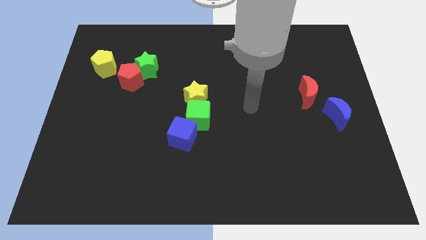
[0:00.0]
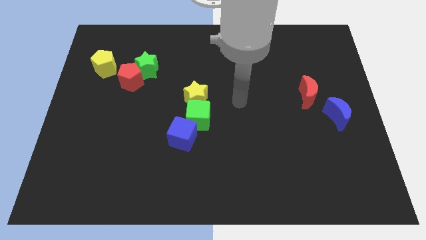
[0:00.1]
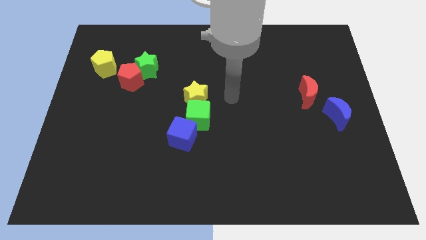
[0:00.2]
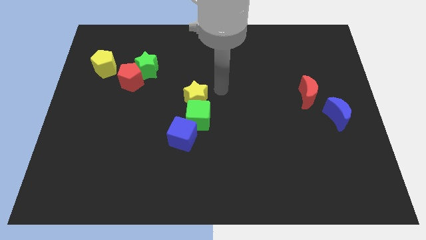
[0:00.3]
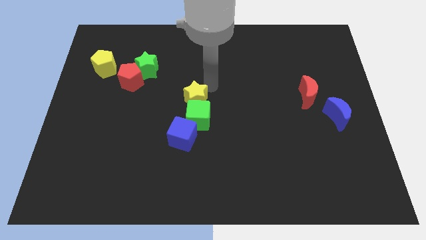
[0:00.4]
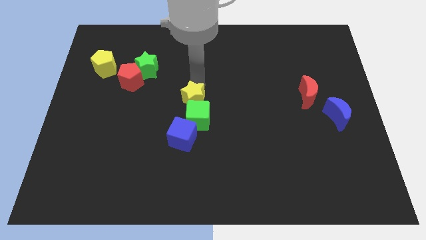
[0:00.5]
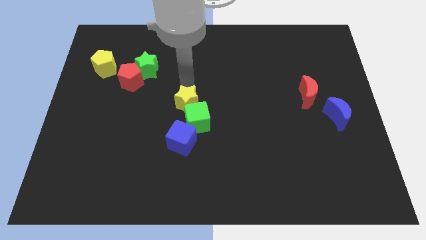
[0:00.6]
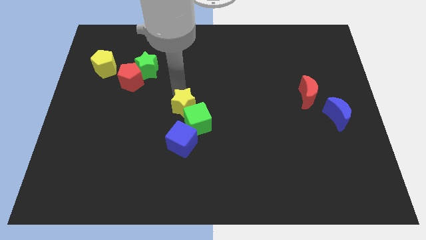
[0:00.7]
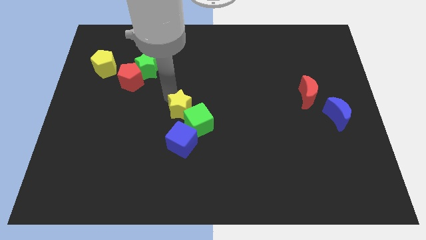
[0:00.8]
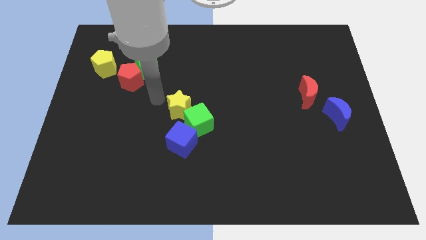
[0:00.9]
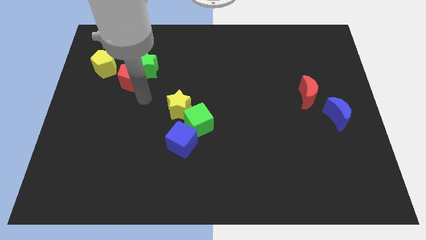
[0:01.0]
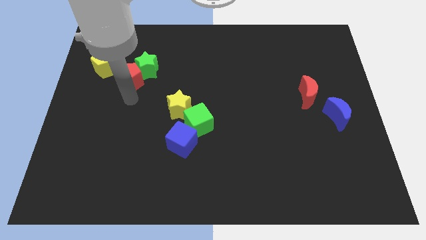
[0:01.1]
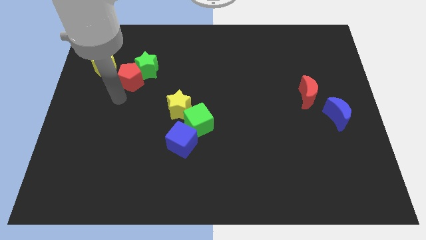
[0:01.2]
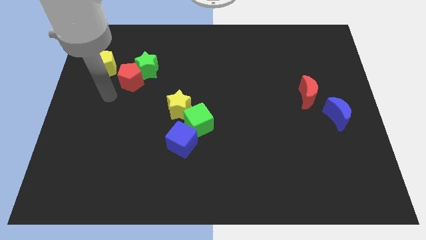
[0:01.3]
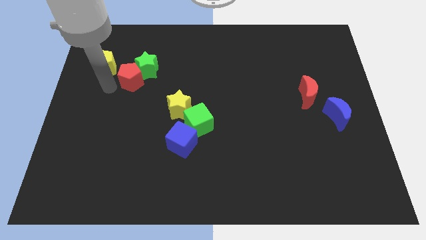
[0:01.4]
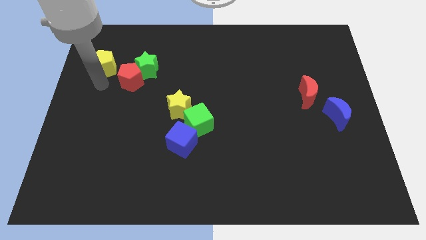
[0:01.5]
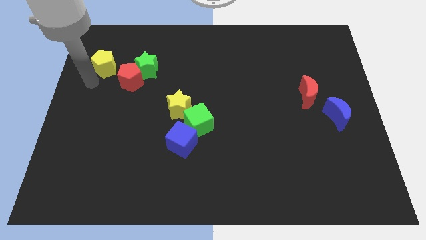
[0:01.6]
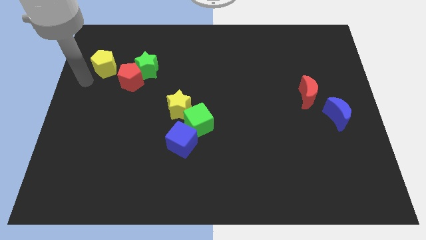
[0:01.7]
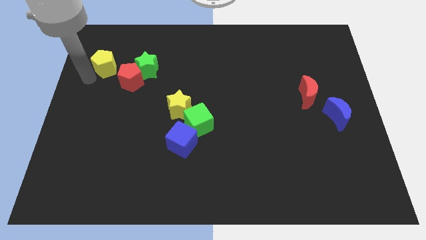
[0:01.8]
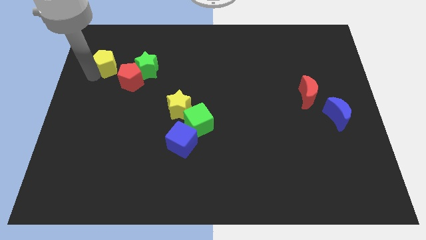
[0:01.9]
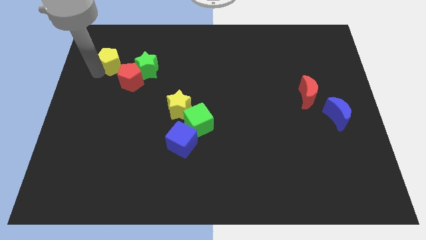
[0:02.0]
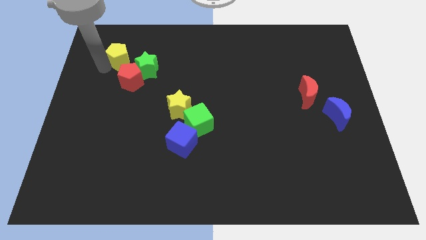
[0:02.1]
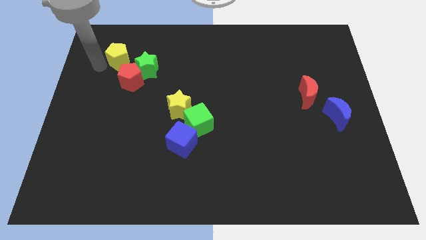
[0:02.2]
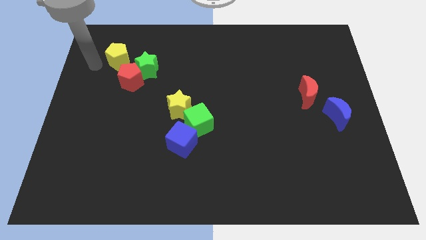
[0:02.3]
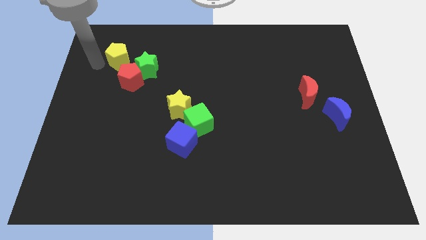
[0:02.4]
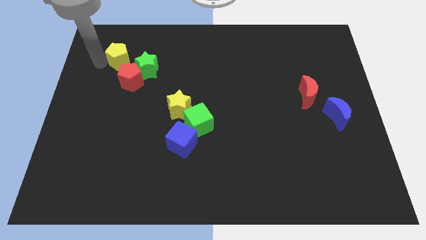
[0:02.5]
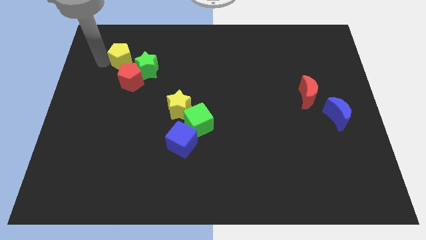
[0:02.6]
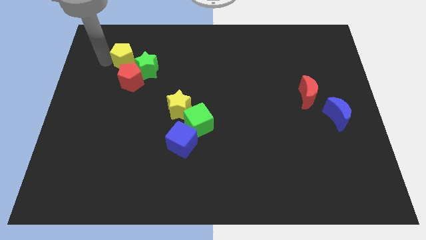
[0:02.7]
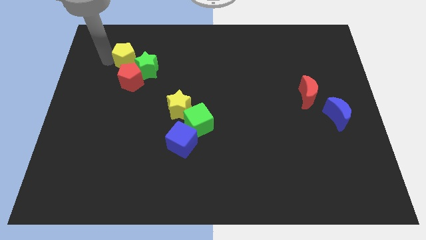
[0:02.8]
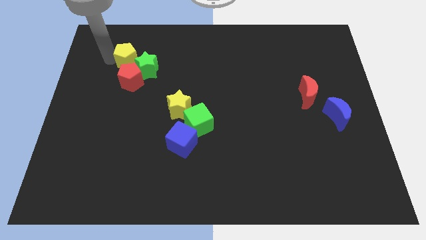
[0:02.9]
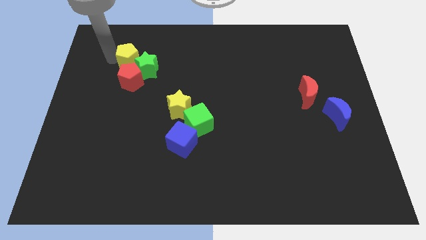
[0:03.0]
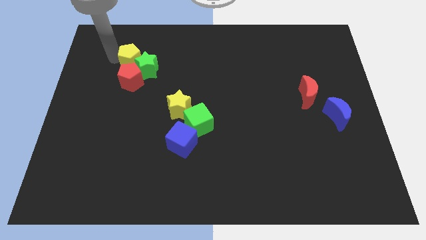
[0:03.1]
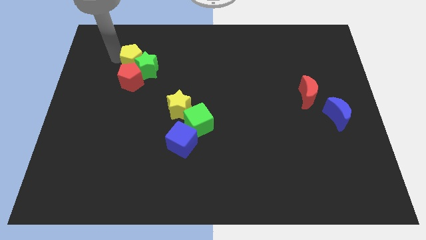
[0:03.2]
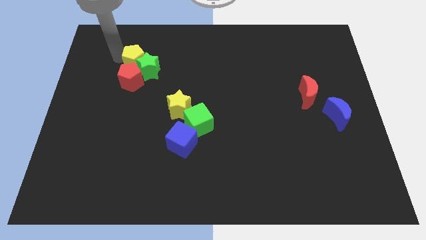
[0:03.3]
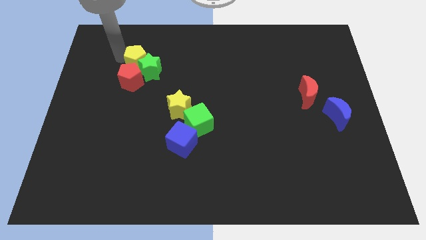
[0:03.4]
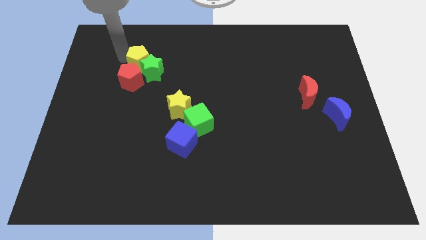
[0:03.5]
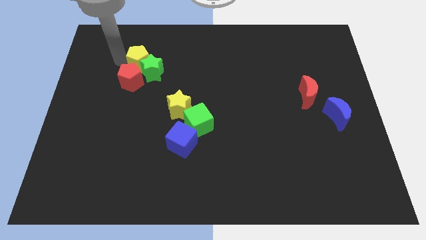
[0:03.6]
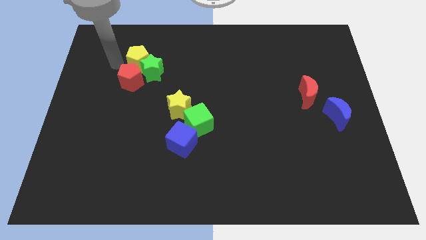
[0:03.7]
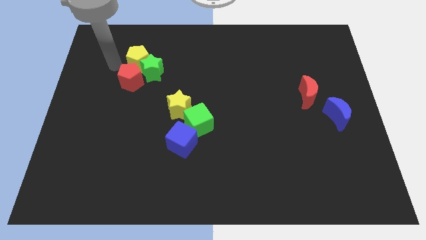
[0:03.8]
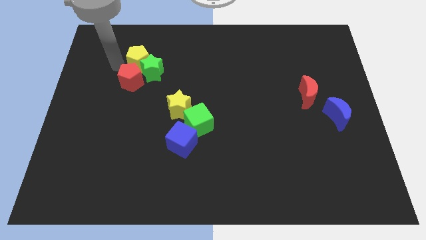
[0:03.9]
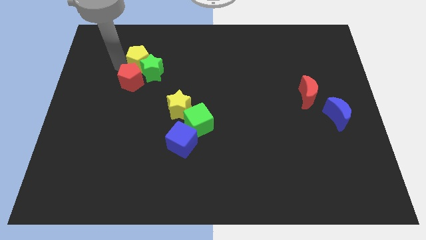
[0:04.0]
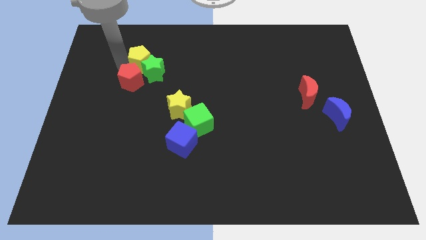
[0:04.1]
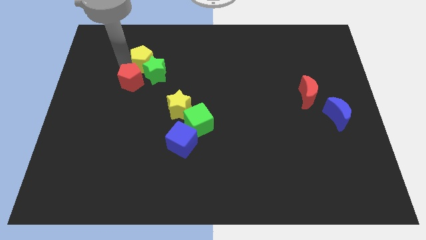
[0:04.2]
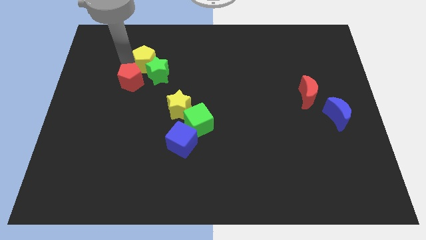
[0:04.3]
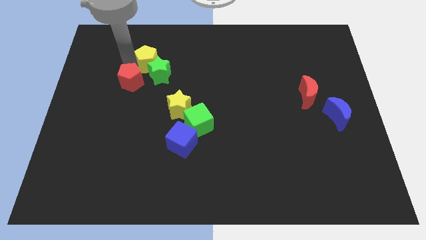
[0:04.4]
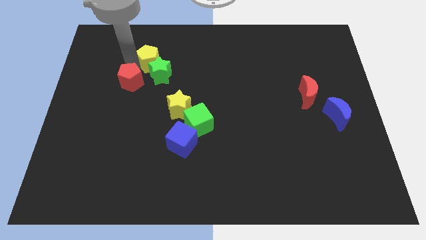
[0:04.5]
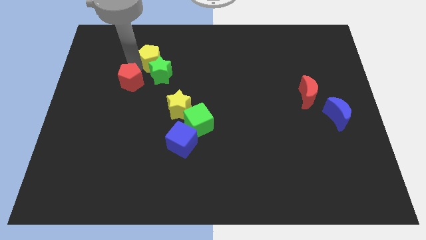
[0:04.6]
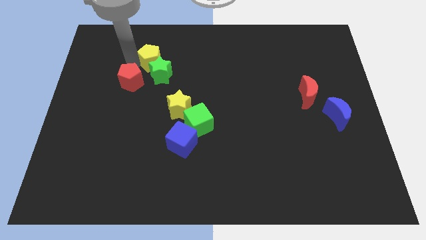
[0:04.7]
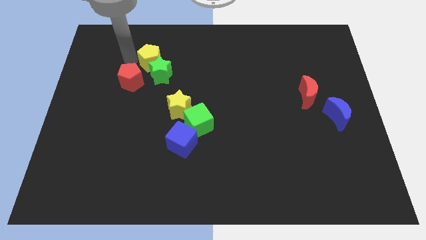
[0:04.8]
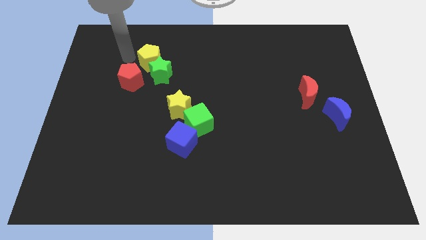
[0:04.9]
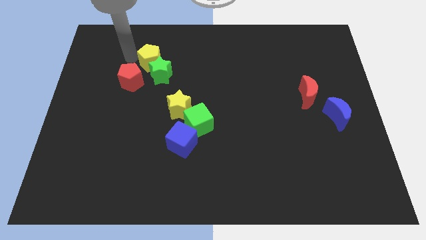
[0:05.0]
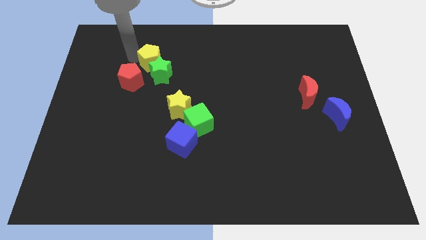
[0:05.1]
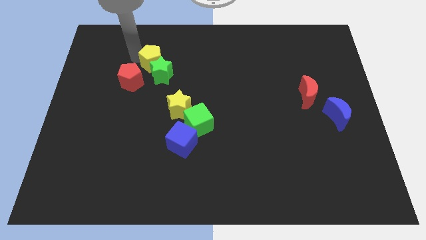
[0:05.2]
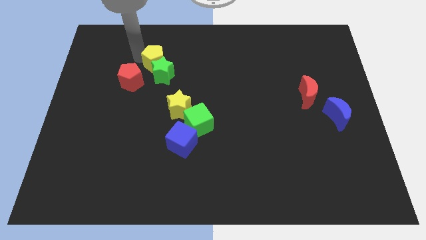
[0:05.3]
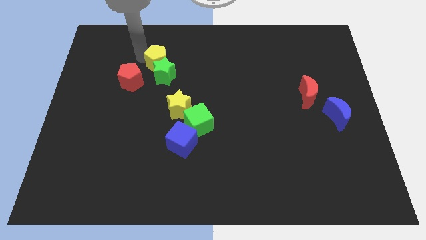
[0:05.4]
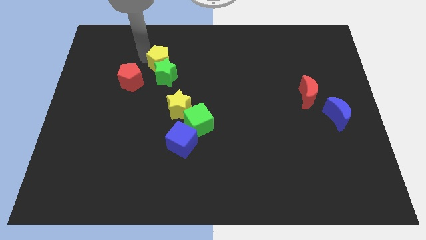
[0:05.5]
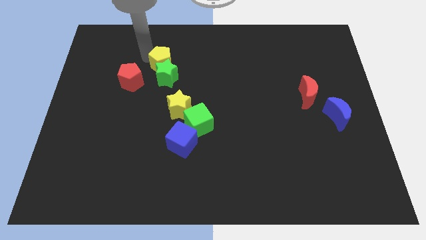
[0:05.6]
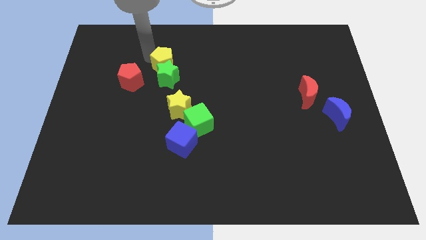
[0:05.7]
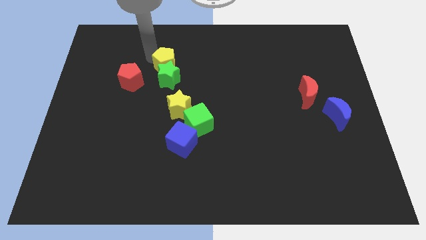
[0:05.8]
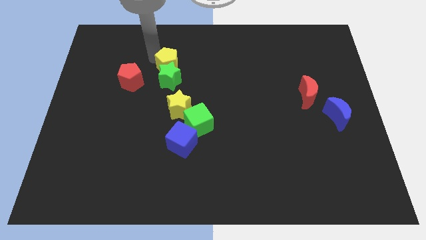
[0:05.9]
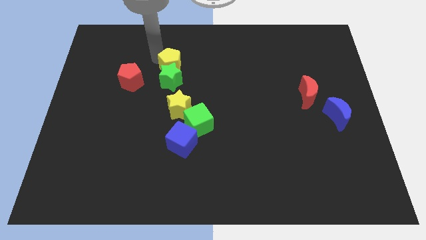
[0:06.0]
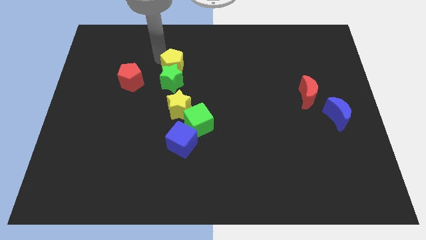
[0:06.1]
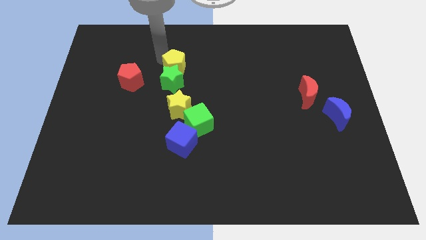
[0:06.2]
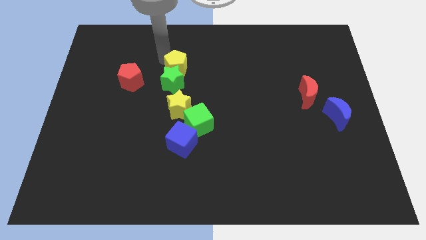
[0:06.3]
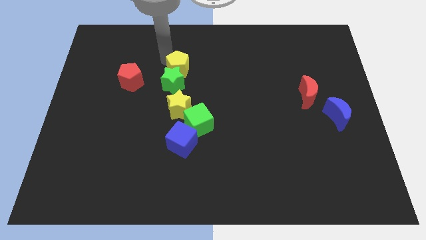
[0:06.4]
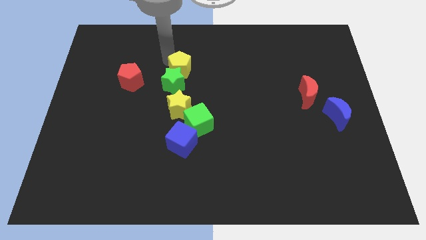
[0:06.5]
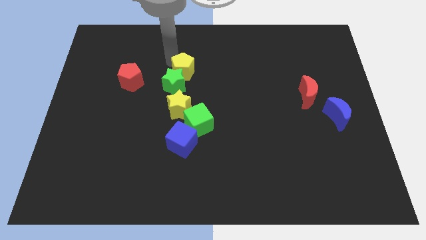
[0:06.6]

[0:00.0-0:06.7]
slide the yellow pentagon to the right

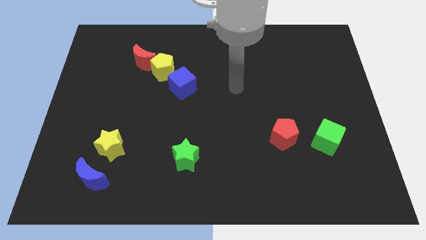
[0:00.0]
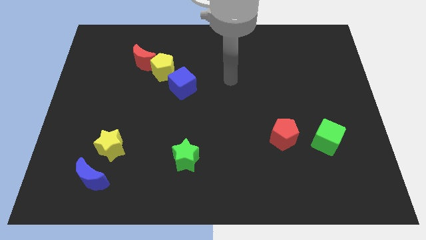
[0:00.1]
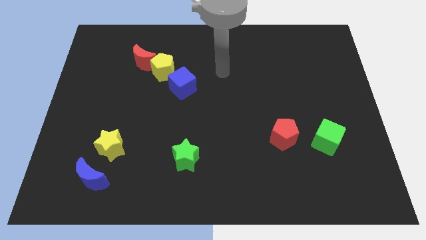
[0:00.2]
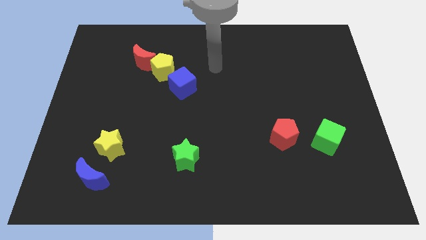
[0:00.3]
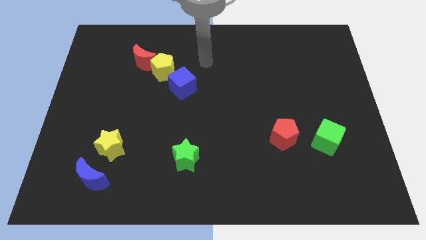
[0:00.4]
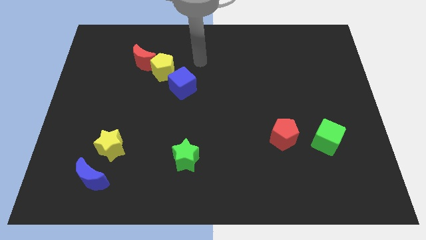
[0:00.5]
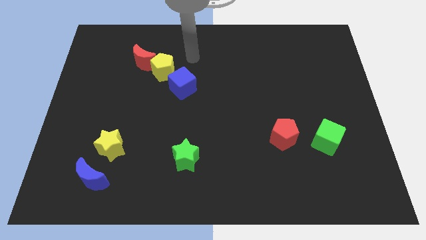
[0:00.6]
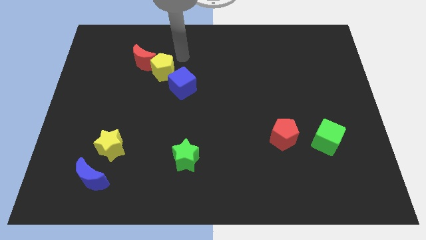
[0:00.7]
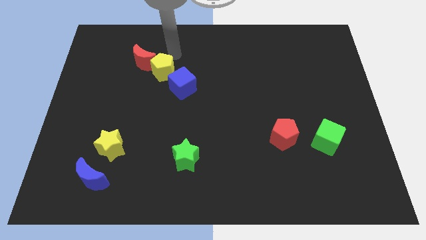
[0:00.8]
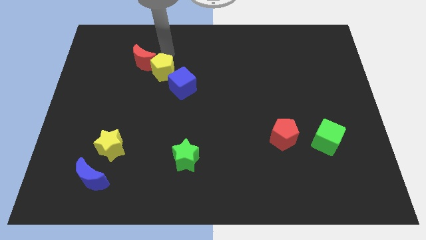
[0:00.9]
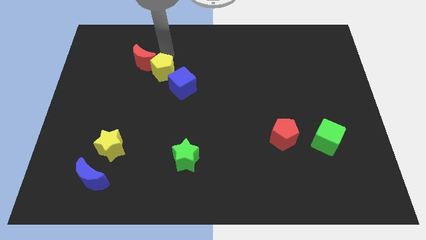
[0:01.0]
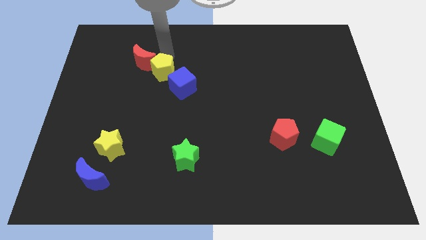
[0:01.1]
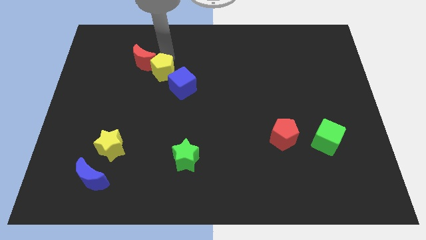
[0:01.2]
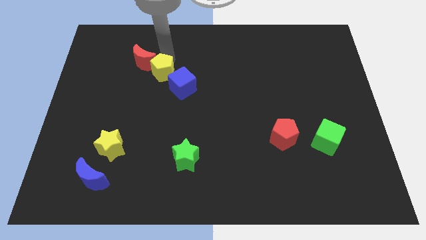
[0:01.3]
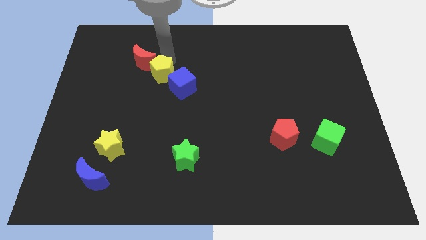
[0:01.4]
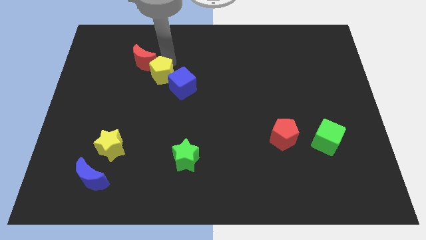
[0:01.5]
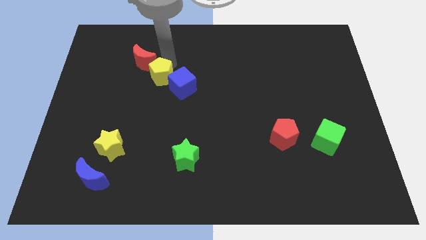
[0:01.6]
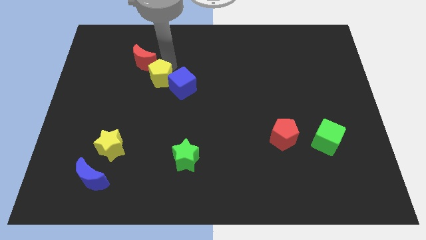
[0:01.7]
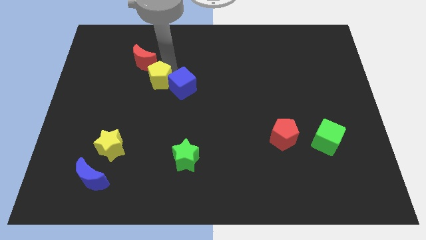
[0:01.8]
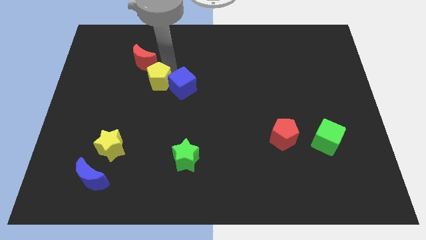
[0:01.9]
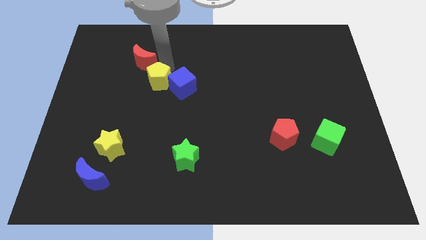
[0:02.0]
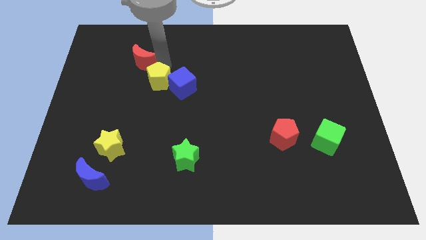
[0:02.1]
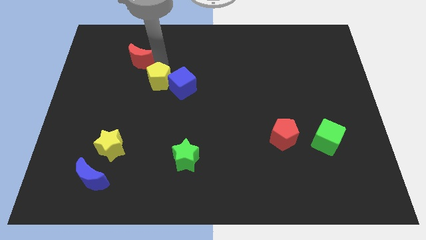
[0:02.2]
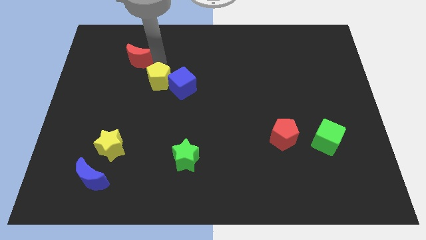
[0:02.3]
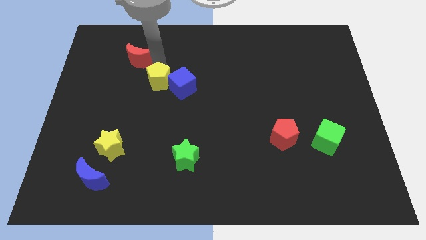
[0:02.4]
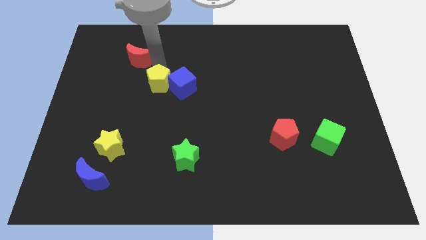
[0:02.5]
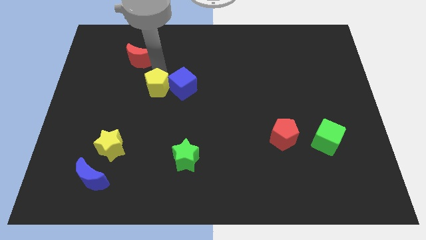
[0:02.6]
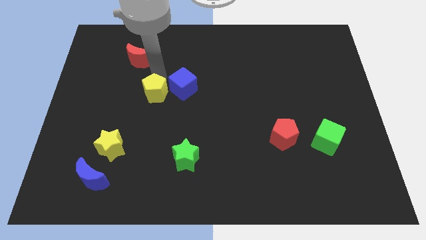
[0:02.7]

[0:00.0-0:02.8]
move the yellow pentagon slightly downwards
